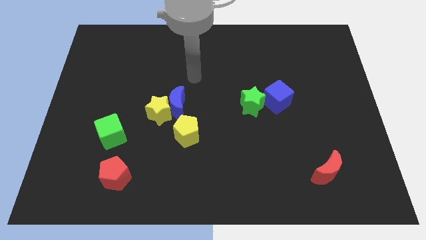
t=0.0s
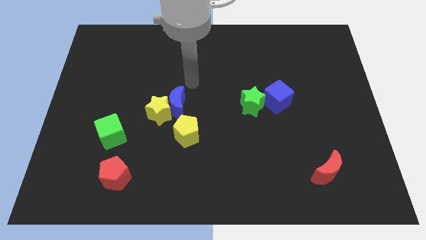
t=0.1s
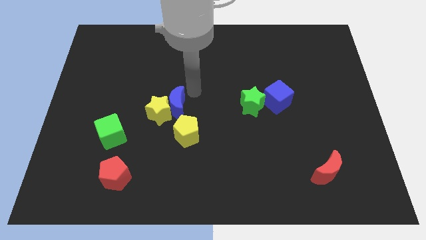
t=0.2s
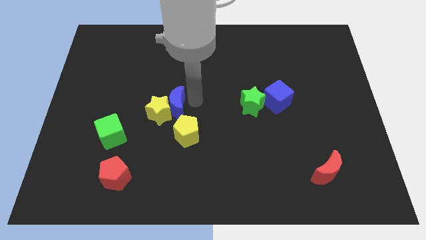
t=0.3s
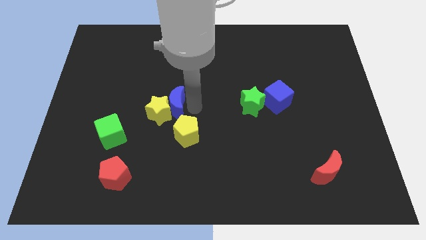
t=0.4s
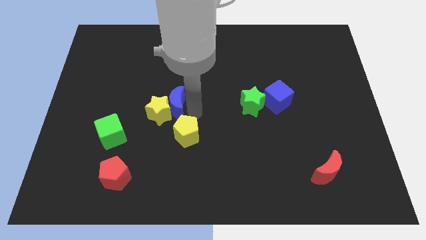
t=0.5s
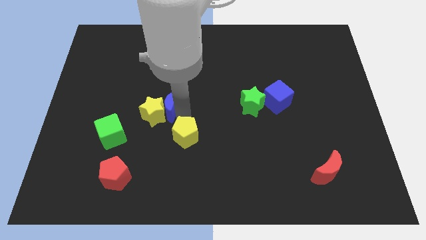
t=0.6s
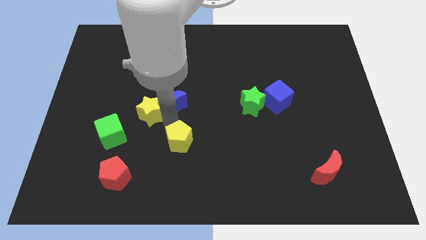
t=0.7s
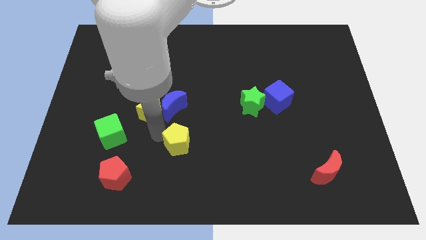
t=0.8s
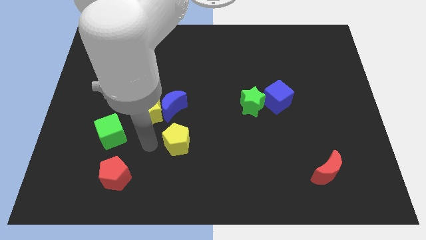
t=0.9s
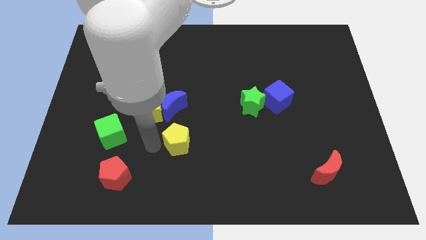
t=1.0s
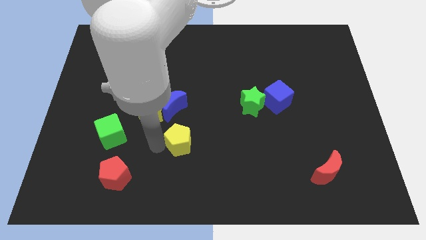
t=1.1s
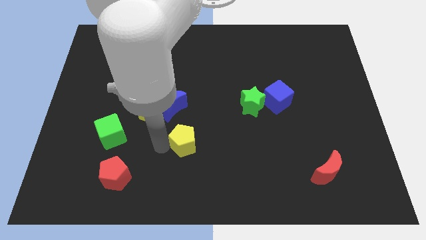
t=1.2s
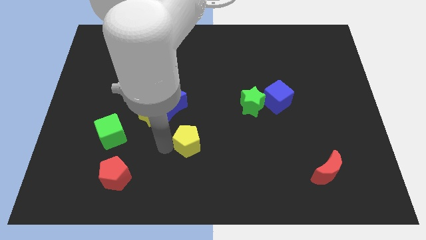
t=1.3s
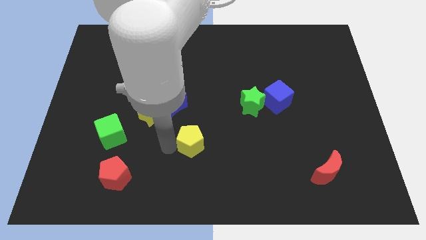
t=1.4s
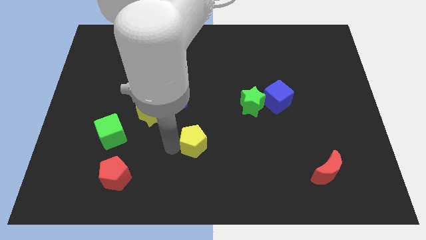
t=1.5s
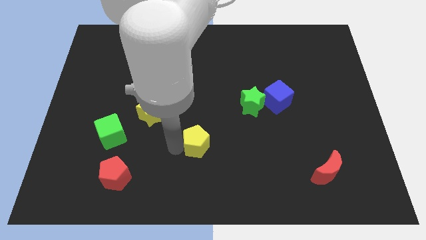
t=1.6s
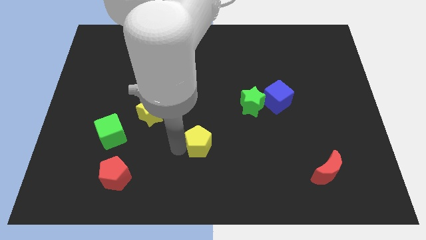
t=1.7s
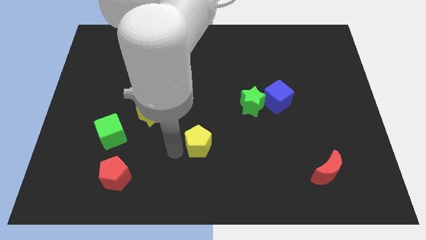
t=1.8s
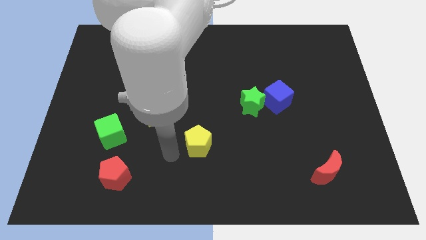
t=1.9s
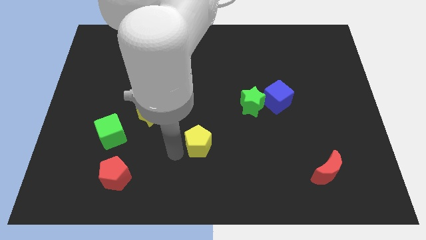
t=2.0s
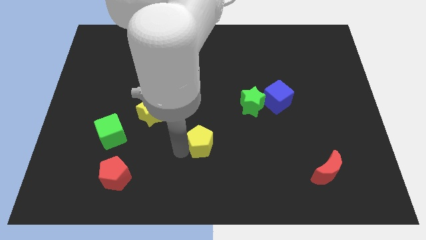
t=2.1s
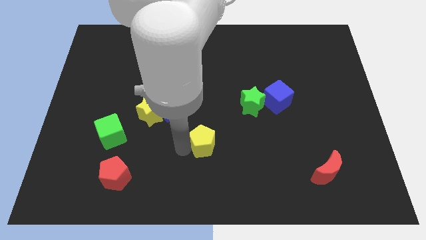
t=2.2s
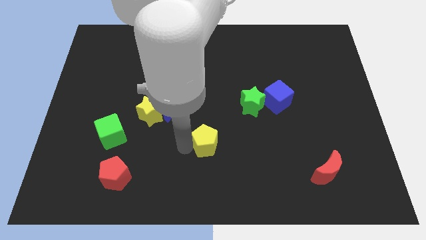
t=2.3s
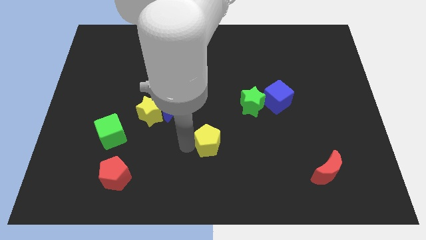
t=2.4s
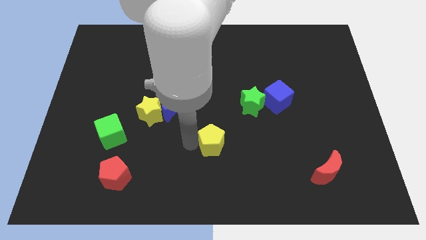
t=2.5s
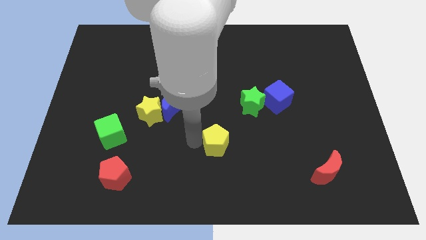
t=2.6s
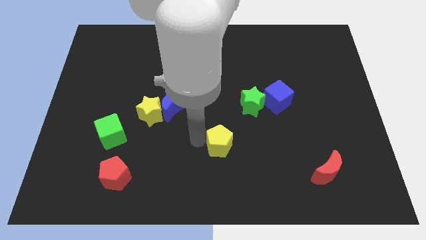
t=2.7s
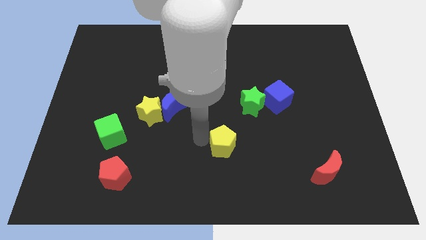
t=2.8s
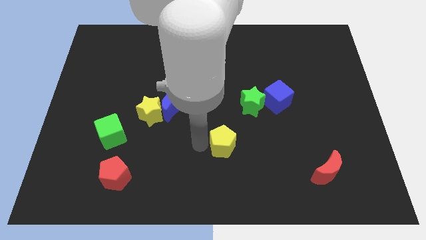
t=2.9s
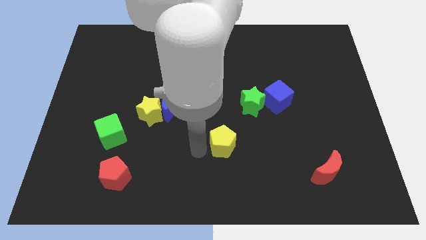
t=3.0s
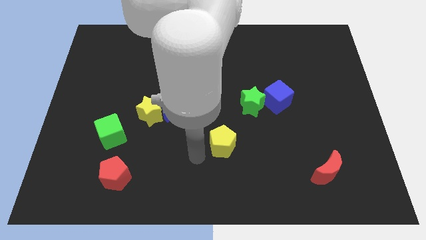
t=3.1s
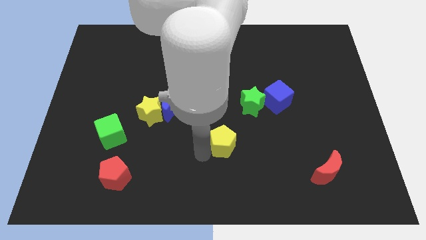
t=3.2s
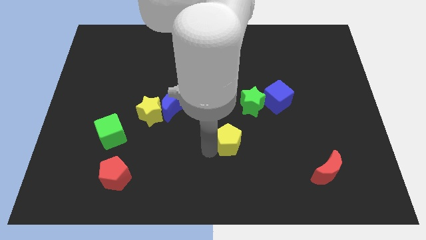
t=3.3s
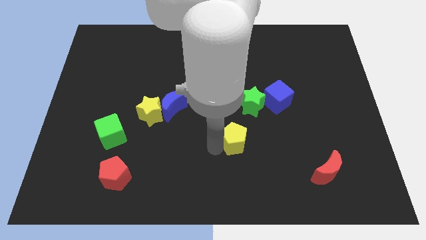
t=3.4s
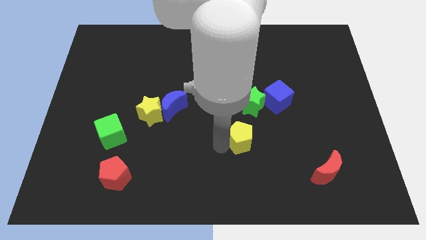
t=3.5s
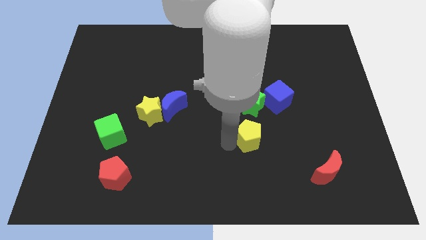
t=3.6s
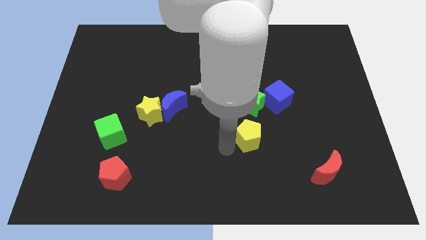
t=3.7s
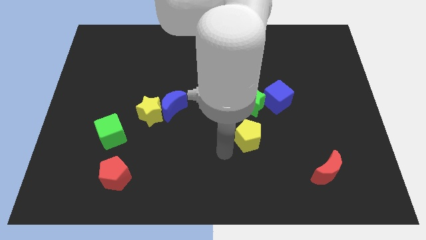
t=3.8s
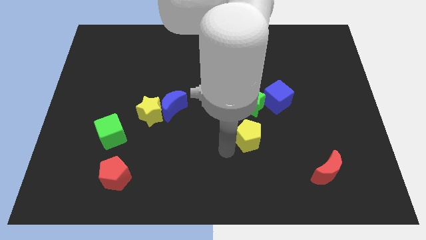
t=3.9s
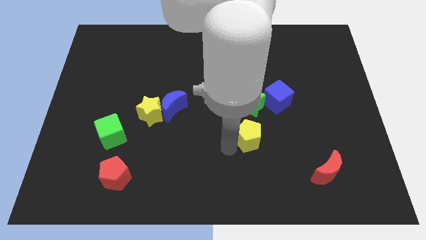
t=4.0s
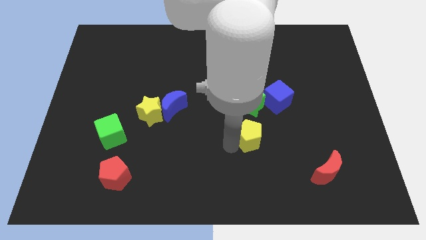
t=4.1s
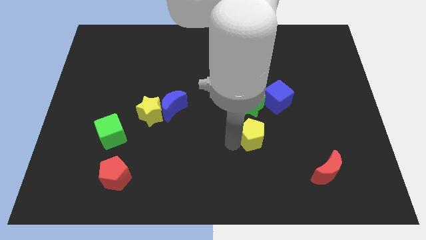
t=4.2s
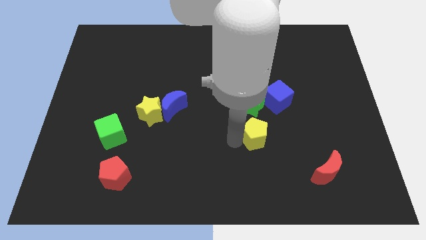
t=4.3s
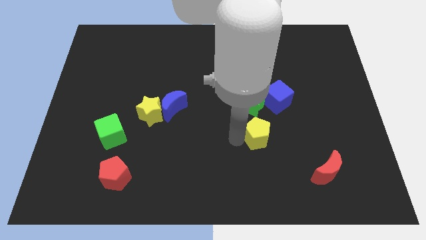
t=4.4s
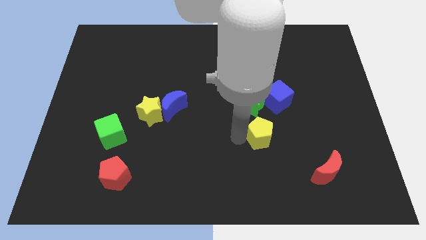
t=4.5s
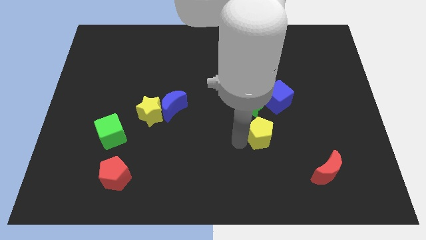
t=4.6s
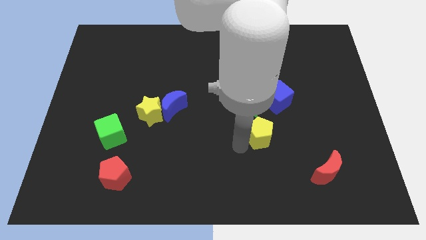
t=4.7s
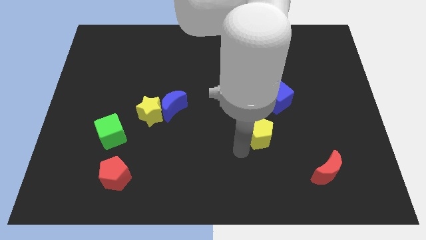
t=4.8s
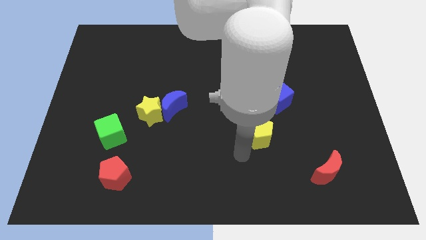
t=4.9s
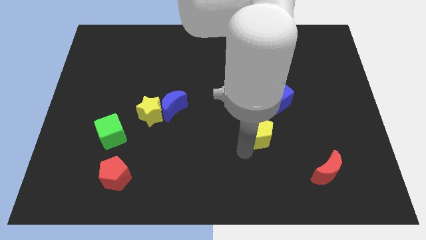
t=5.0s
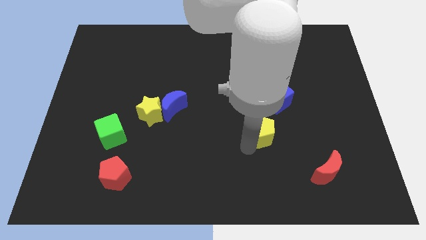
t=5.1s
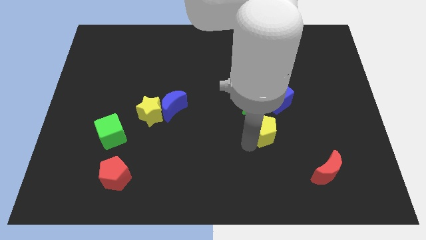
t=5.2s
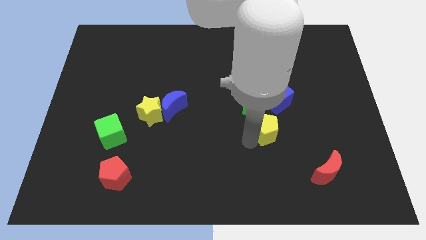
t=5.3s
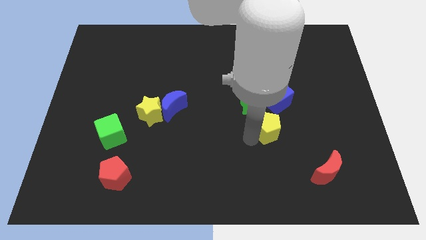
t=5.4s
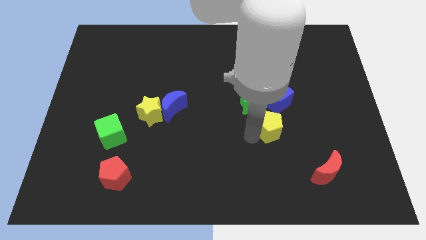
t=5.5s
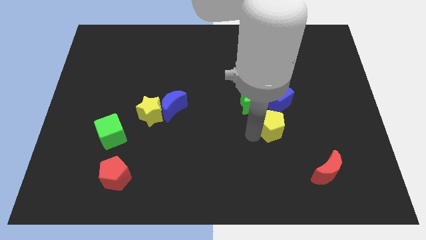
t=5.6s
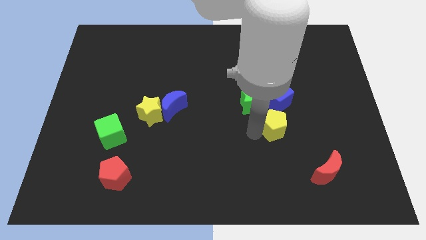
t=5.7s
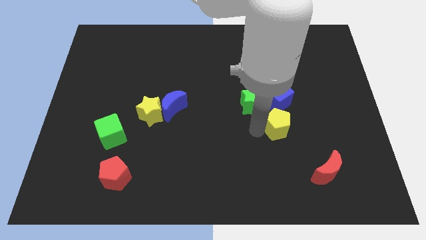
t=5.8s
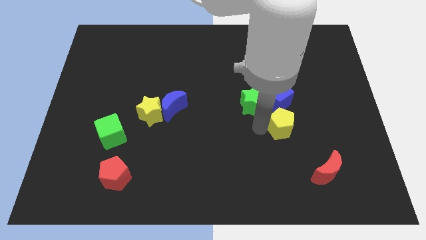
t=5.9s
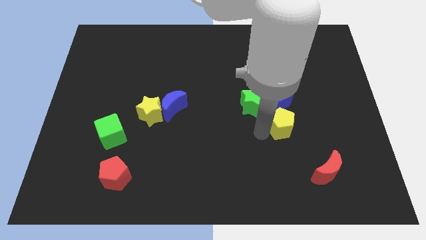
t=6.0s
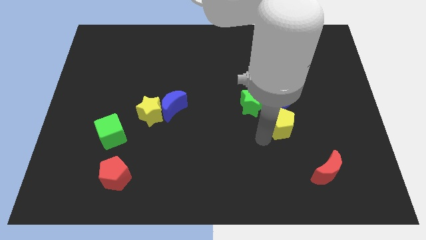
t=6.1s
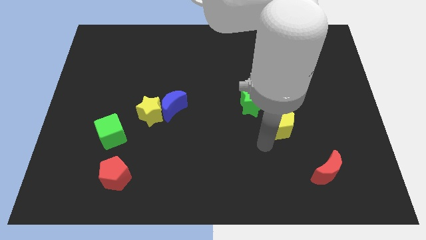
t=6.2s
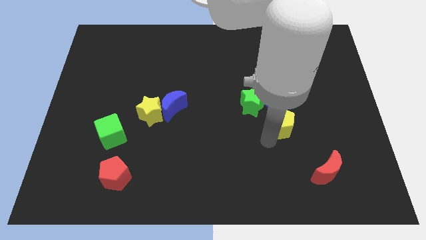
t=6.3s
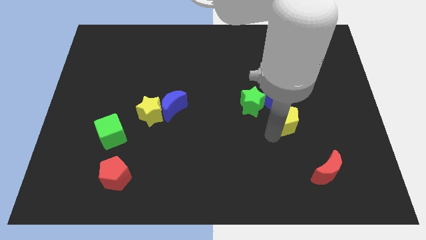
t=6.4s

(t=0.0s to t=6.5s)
put the yellow pentagon to the right side of the green star
